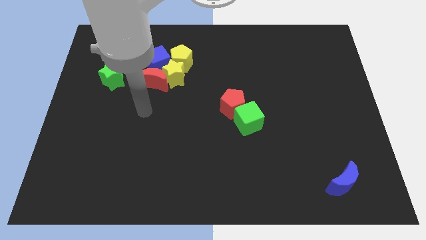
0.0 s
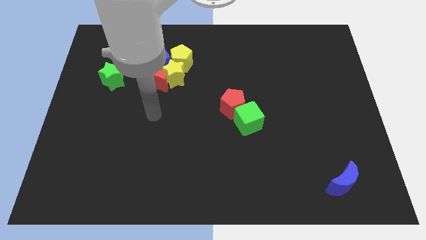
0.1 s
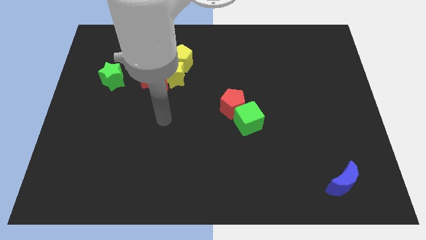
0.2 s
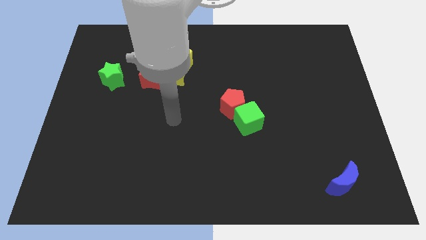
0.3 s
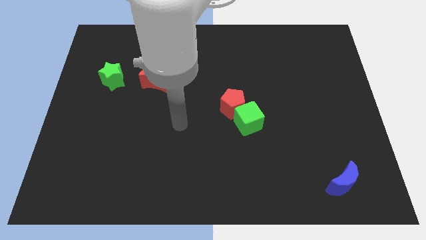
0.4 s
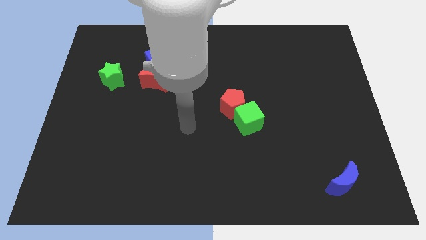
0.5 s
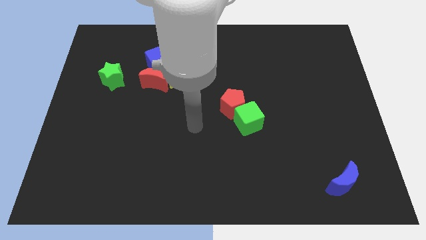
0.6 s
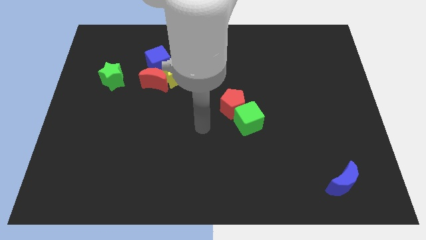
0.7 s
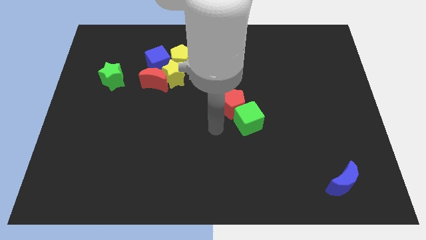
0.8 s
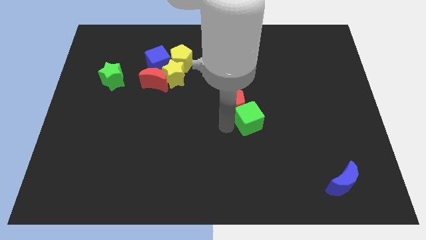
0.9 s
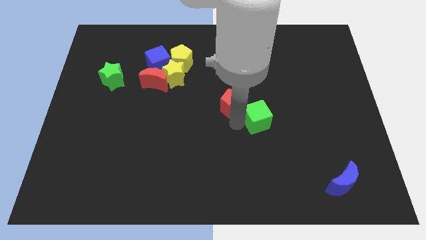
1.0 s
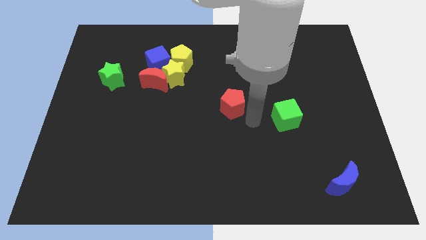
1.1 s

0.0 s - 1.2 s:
separate the red pentagon from the green cube

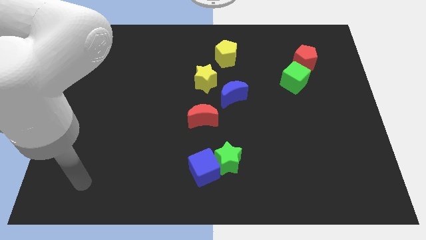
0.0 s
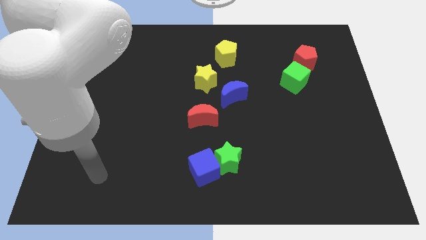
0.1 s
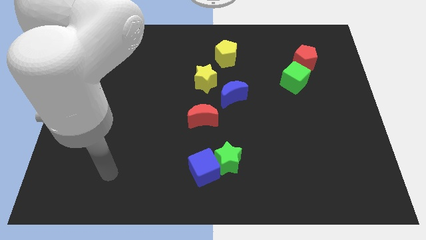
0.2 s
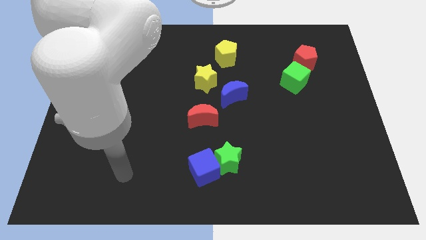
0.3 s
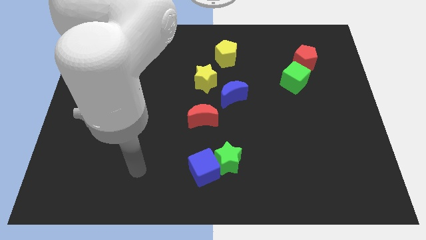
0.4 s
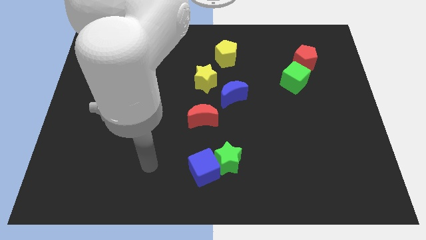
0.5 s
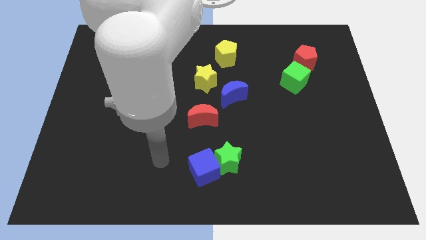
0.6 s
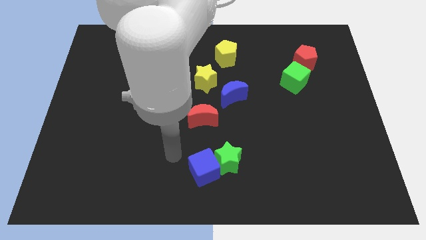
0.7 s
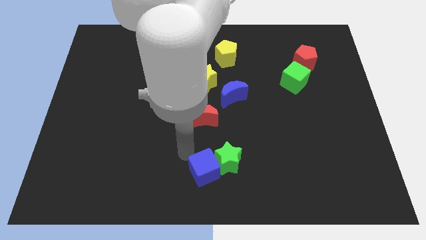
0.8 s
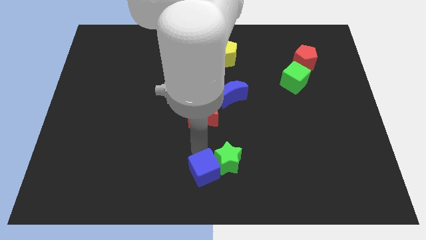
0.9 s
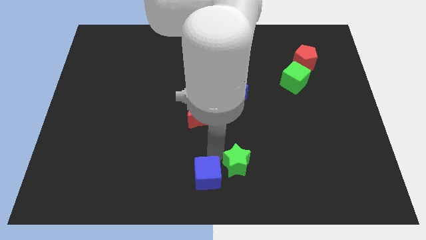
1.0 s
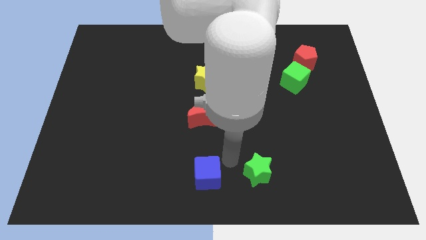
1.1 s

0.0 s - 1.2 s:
pull the blue cube apart from the green star

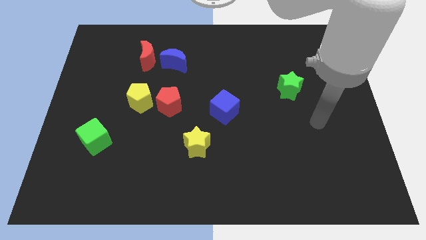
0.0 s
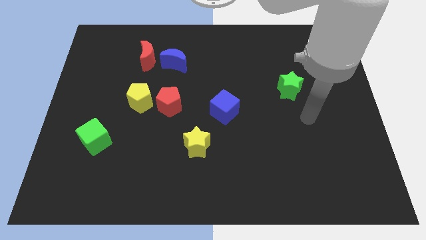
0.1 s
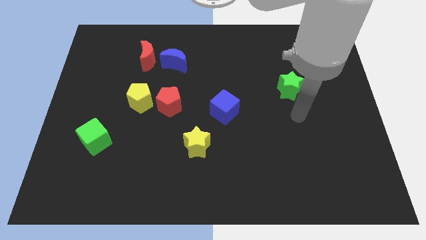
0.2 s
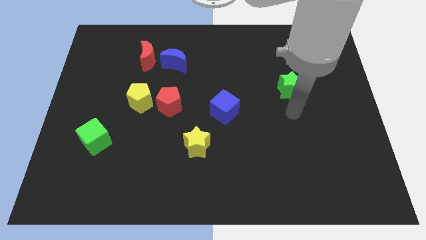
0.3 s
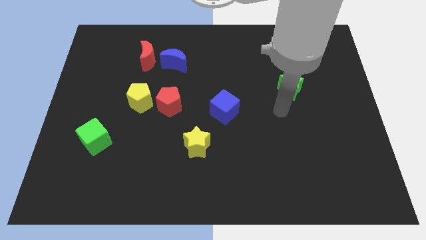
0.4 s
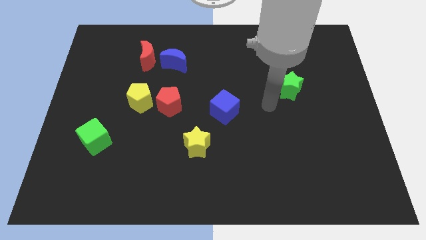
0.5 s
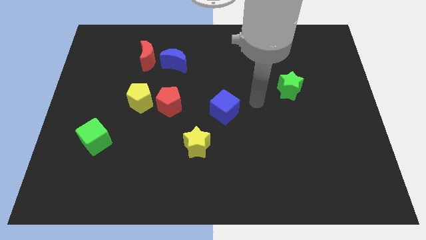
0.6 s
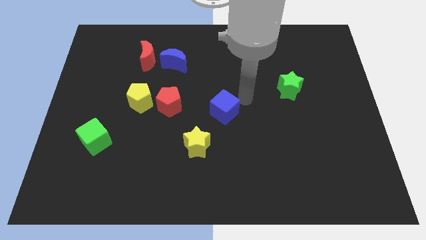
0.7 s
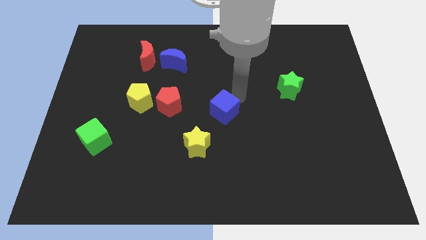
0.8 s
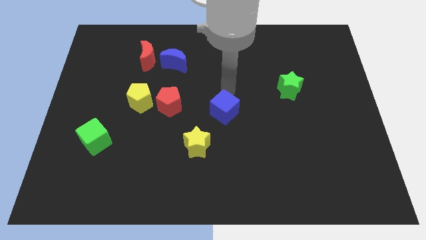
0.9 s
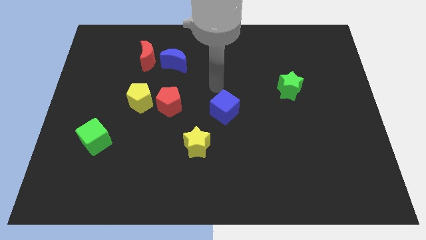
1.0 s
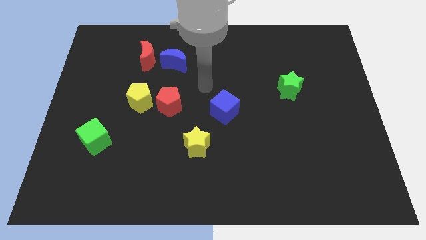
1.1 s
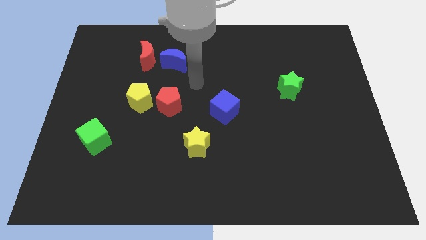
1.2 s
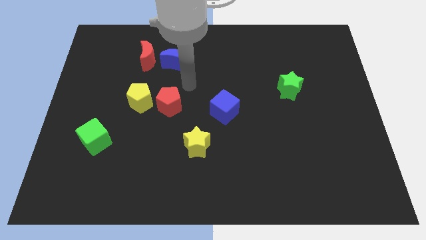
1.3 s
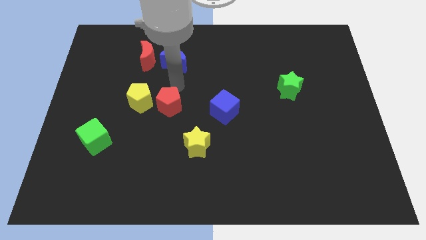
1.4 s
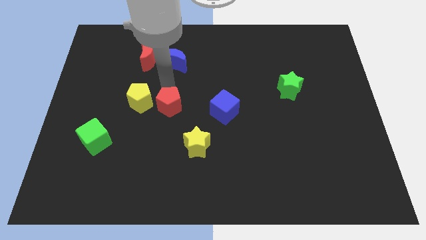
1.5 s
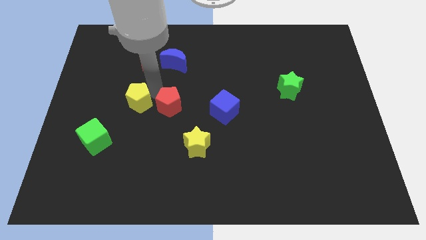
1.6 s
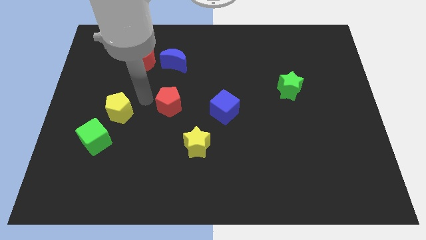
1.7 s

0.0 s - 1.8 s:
move the red pentagon away from the yellow pentagon

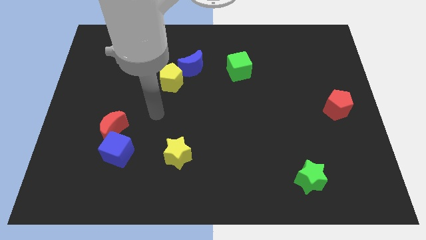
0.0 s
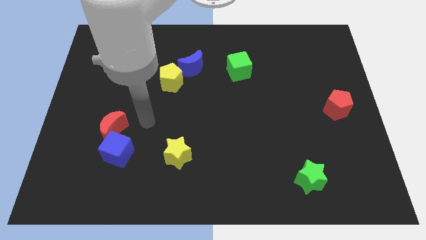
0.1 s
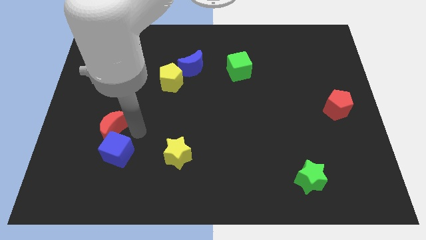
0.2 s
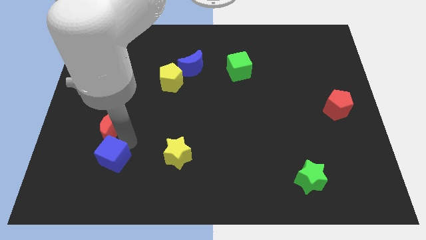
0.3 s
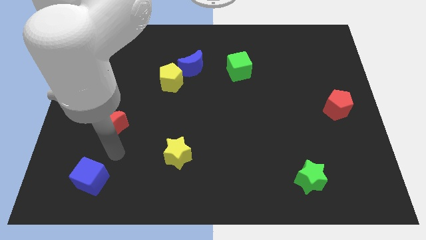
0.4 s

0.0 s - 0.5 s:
separate the red moon from the blue cube

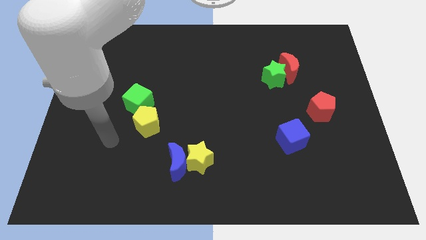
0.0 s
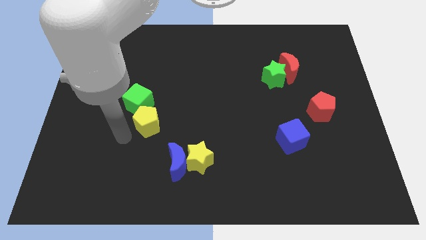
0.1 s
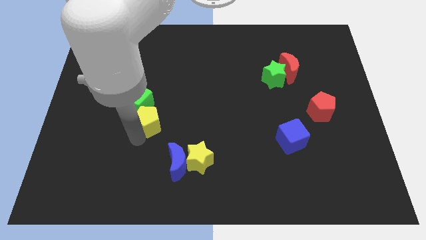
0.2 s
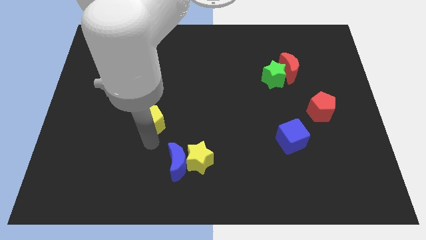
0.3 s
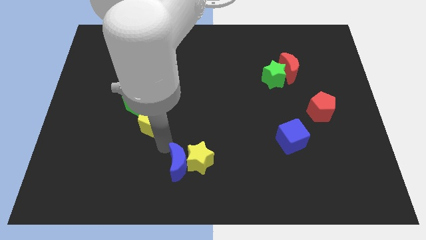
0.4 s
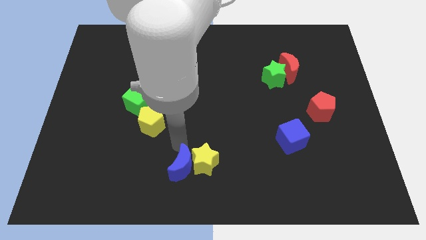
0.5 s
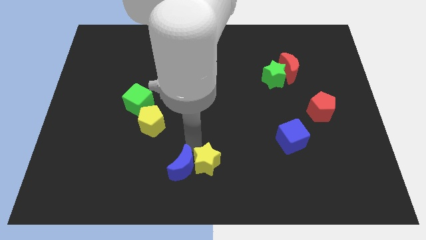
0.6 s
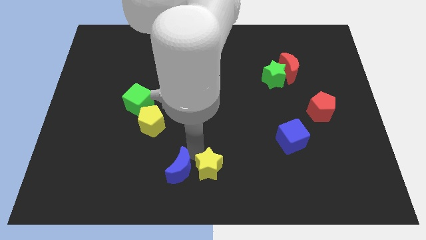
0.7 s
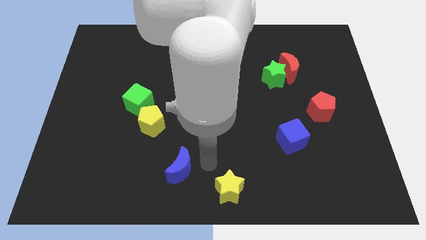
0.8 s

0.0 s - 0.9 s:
move the blue moon away from the yellow star

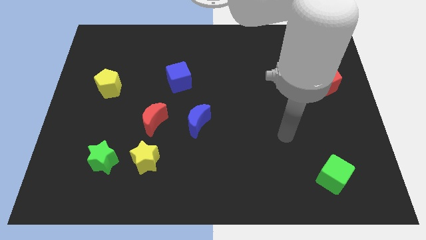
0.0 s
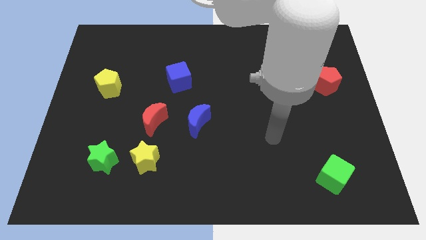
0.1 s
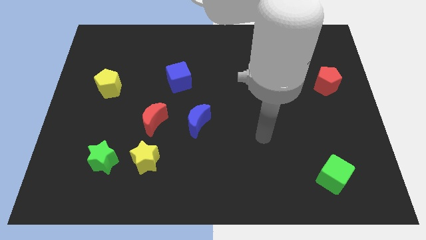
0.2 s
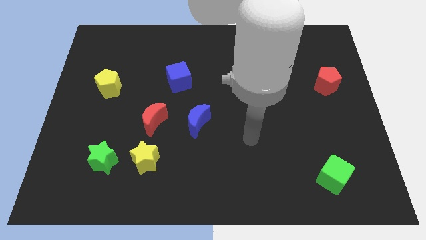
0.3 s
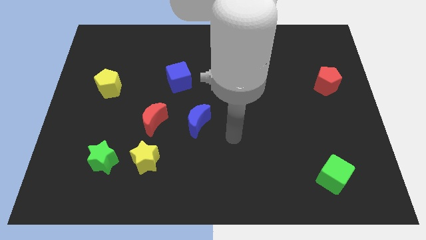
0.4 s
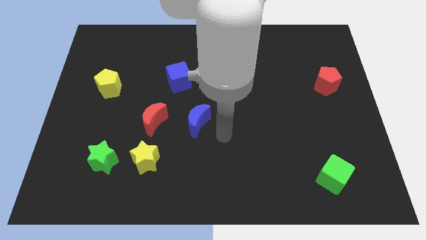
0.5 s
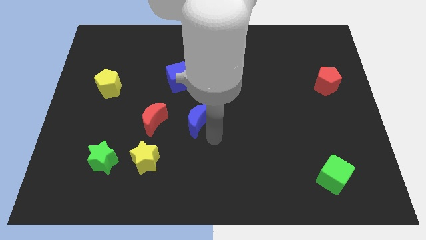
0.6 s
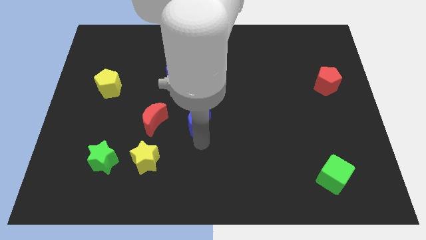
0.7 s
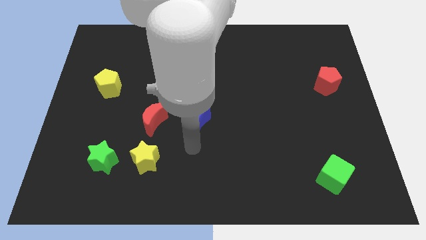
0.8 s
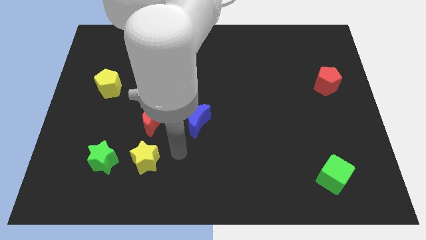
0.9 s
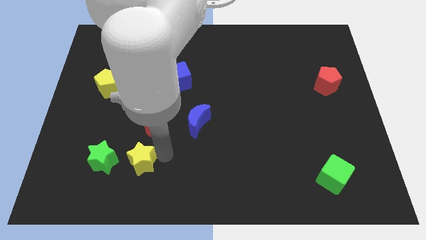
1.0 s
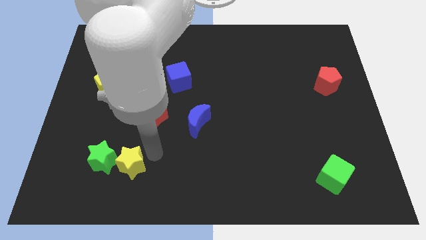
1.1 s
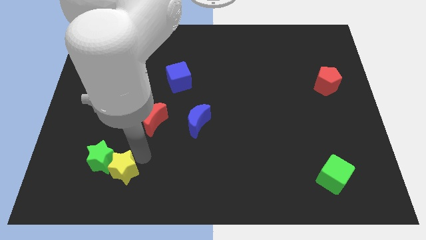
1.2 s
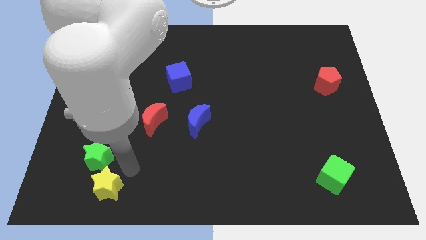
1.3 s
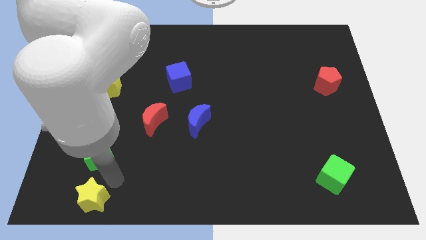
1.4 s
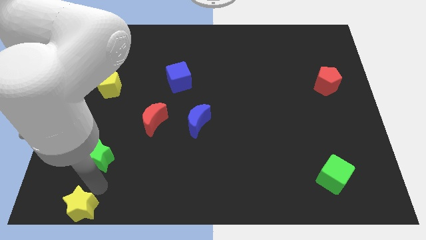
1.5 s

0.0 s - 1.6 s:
move the green star away from the yellow star

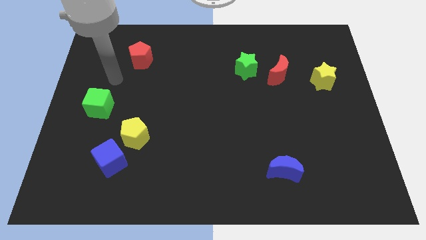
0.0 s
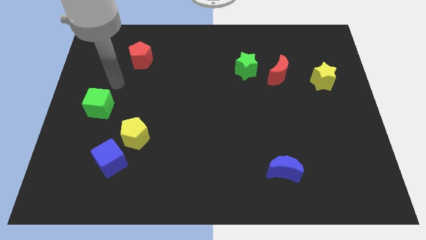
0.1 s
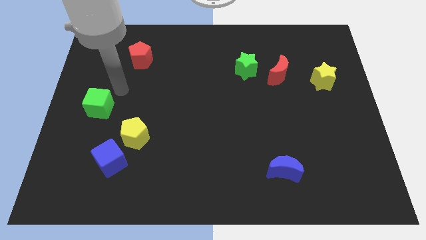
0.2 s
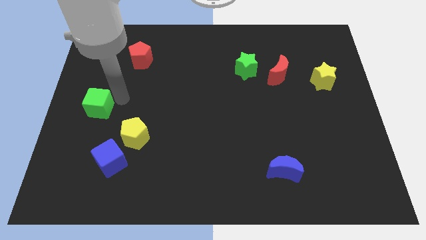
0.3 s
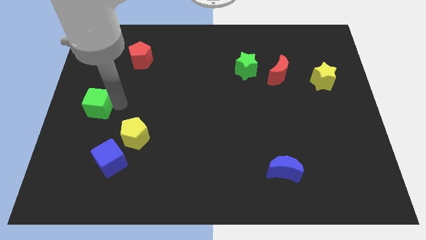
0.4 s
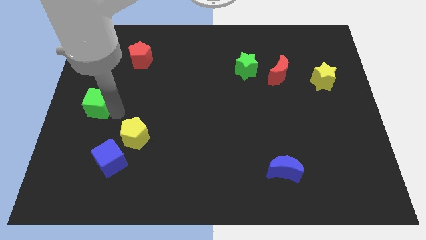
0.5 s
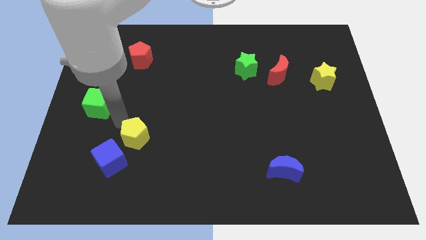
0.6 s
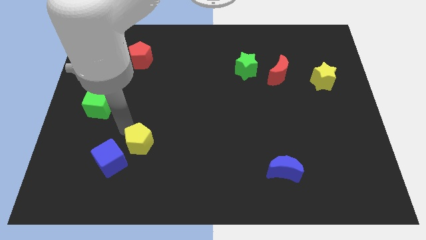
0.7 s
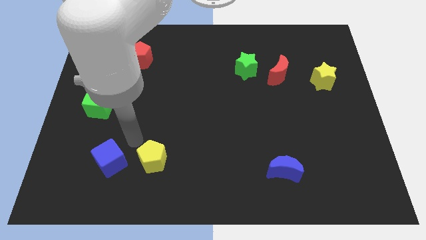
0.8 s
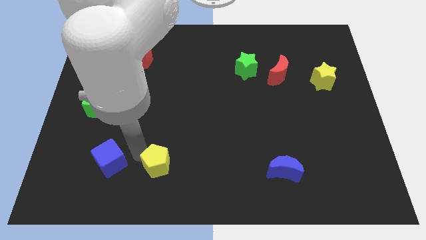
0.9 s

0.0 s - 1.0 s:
pull the blue cube apart from the yellow pentagon

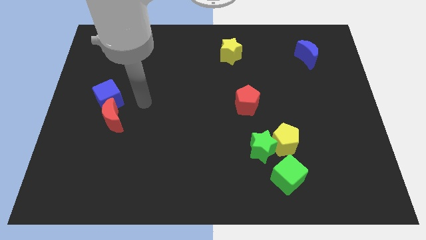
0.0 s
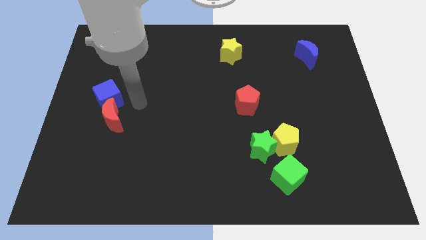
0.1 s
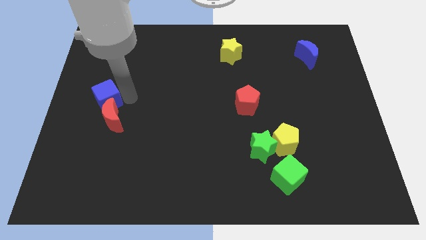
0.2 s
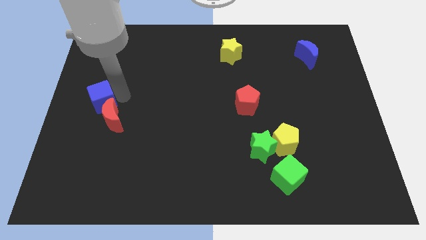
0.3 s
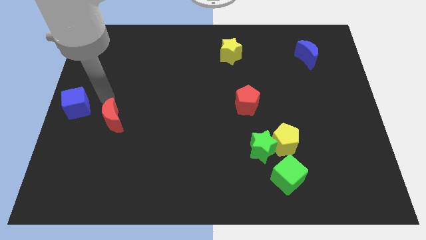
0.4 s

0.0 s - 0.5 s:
pull the red moon apart from the blue cube

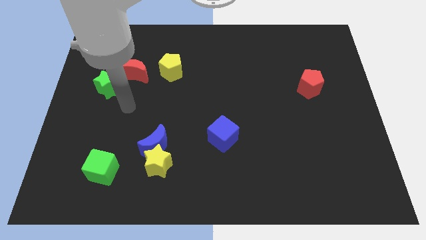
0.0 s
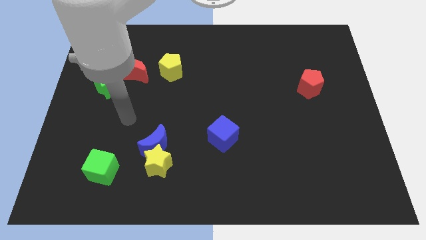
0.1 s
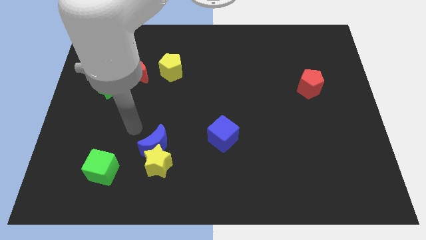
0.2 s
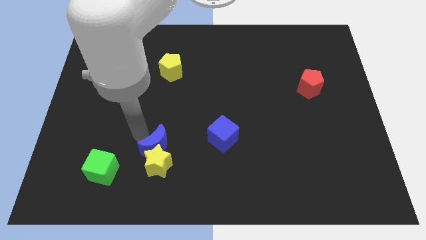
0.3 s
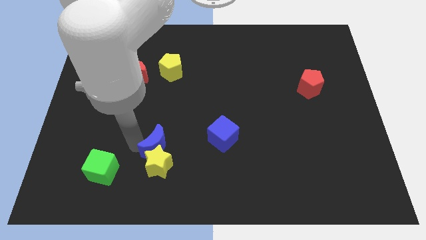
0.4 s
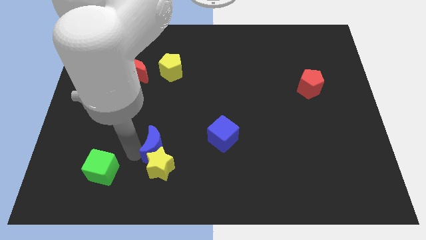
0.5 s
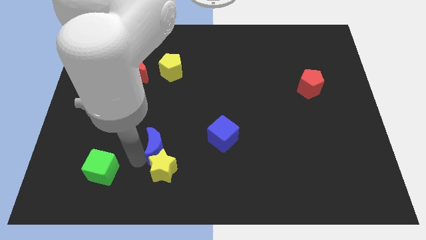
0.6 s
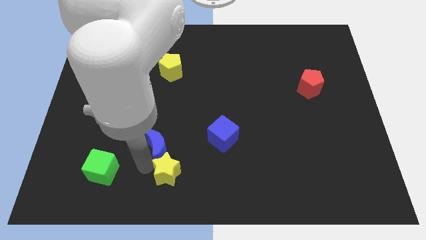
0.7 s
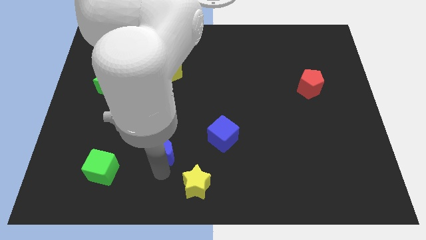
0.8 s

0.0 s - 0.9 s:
separate the blue moon from the yellow star
